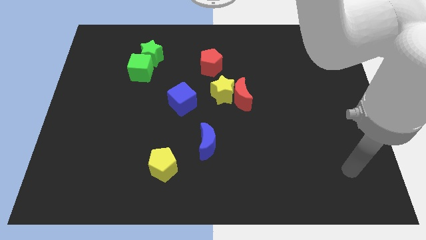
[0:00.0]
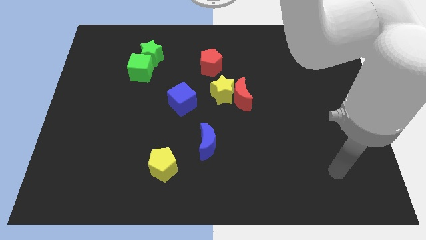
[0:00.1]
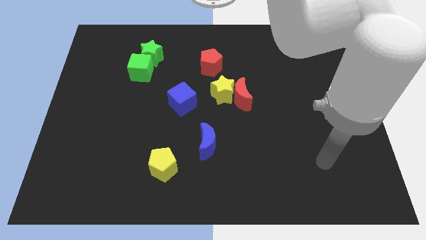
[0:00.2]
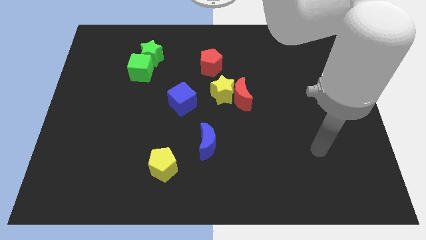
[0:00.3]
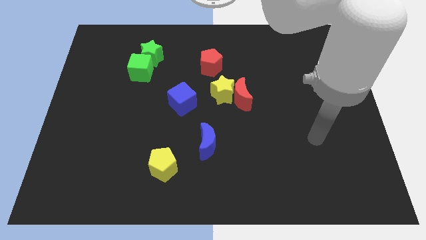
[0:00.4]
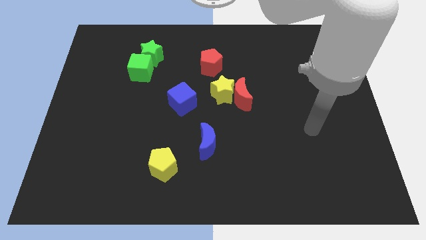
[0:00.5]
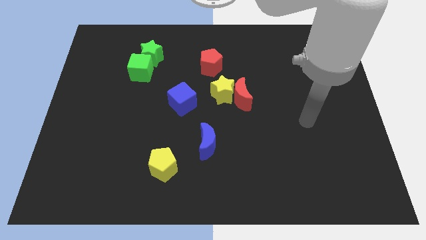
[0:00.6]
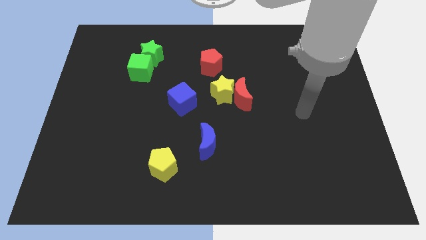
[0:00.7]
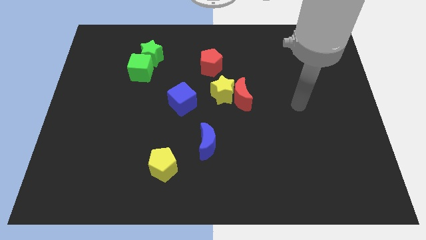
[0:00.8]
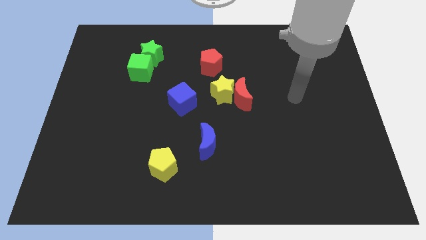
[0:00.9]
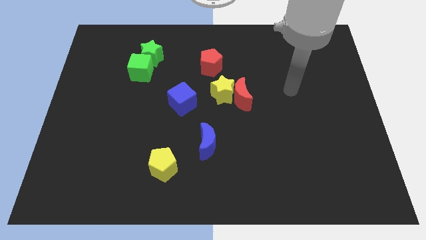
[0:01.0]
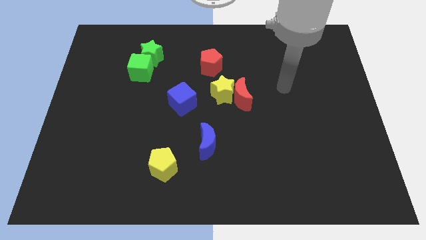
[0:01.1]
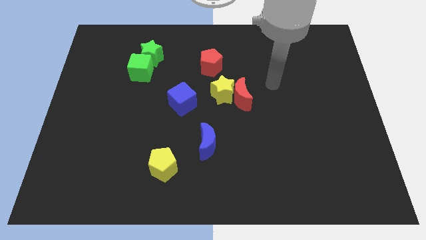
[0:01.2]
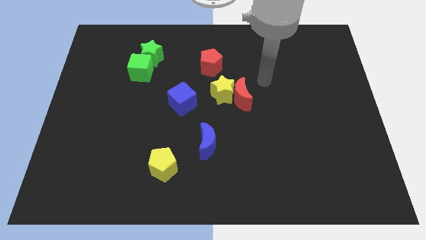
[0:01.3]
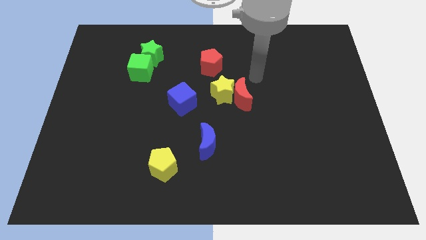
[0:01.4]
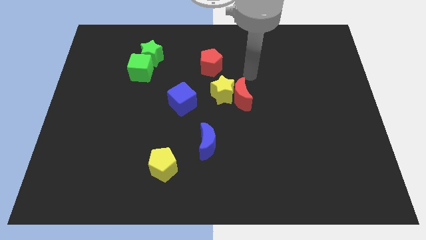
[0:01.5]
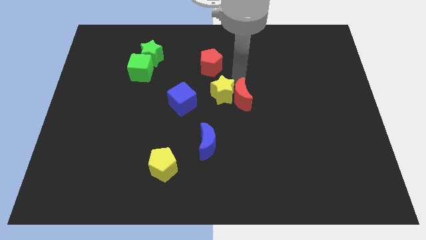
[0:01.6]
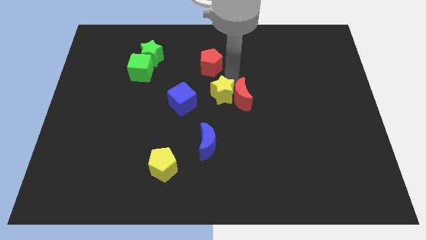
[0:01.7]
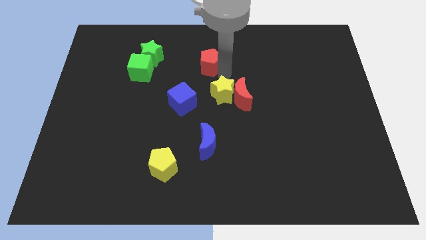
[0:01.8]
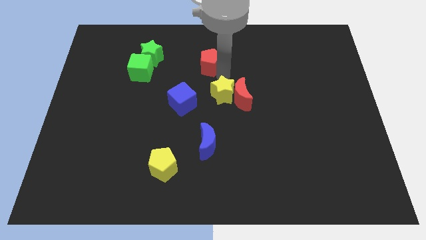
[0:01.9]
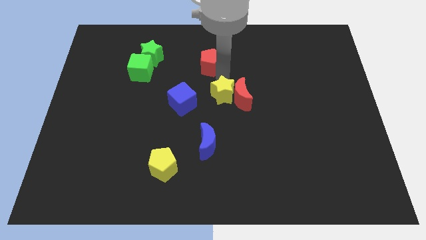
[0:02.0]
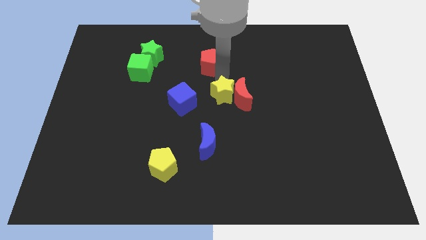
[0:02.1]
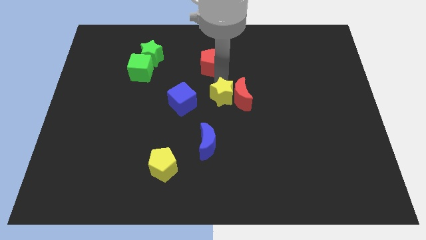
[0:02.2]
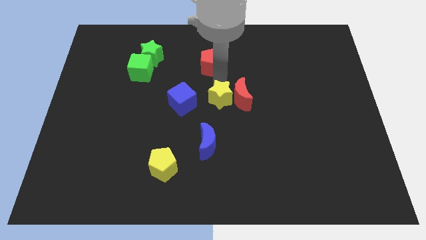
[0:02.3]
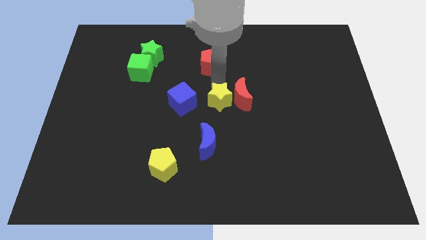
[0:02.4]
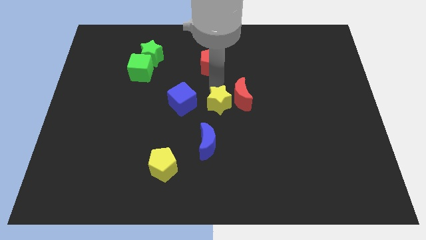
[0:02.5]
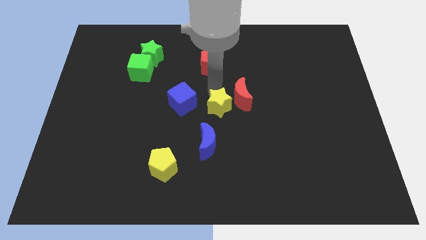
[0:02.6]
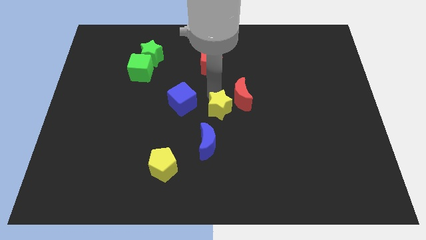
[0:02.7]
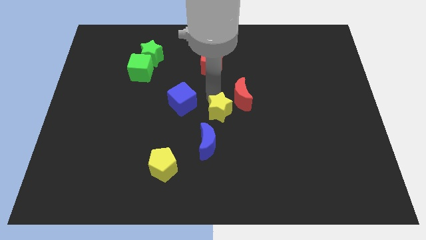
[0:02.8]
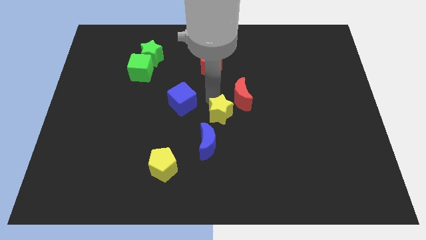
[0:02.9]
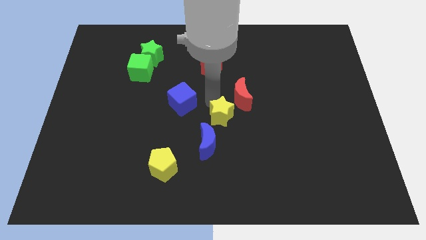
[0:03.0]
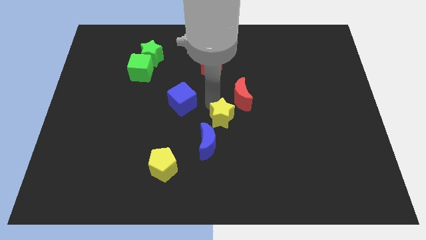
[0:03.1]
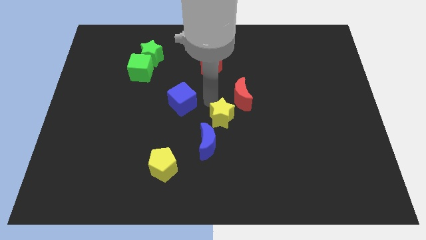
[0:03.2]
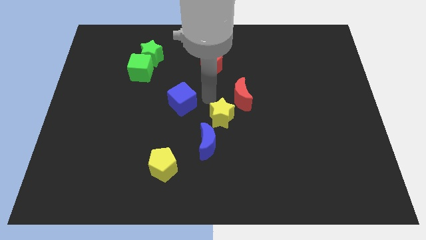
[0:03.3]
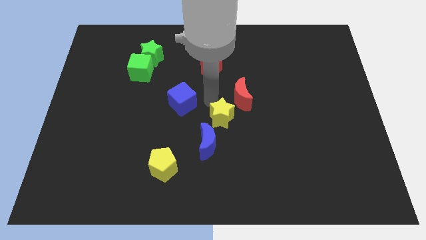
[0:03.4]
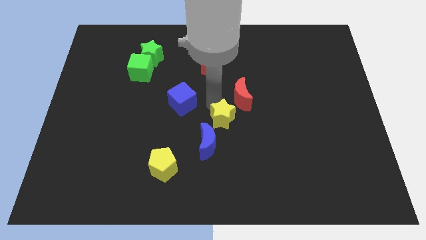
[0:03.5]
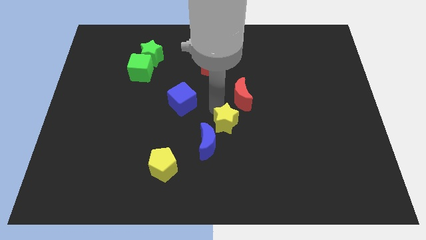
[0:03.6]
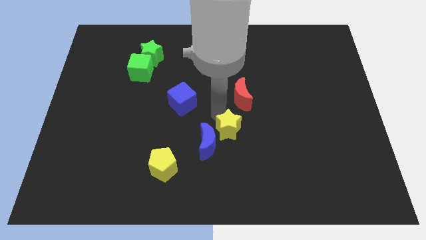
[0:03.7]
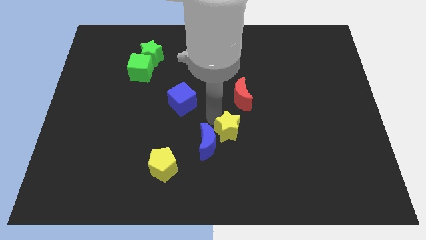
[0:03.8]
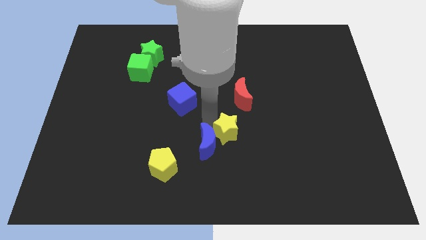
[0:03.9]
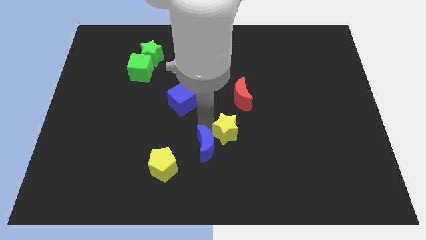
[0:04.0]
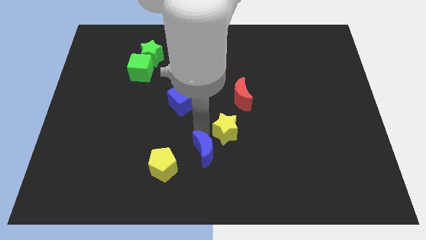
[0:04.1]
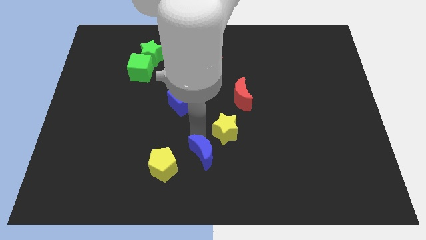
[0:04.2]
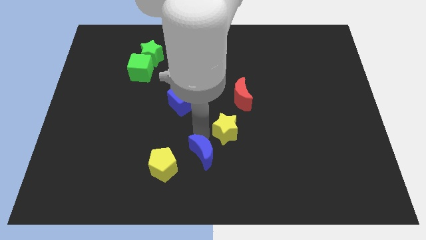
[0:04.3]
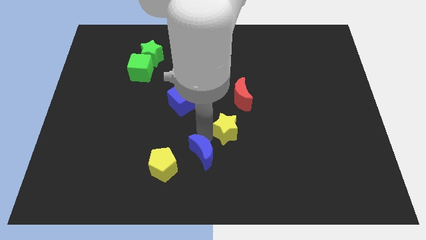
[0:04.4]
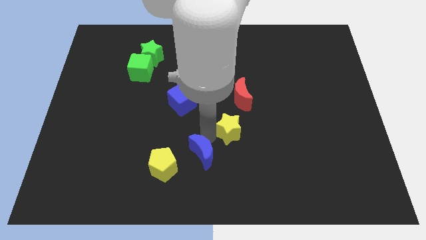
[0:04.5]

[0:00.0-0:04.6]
move the yellow star somewhat diagonally down and right

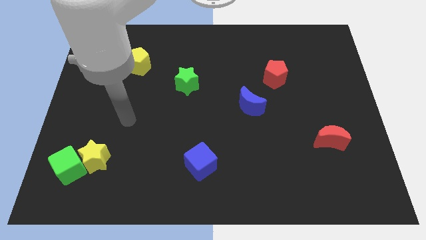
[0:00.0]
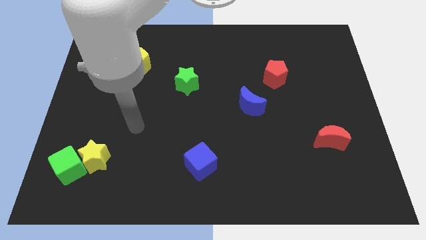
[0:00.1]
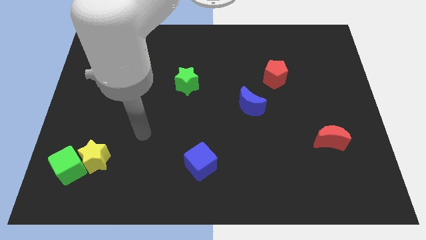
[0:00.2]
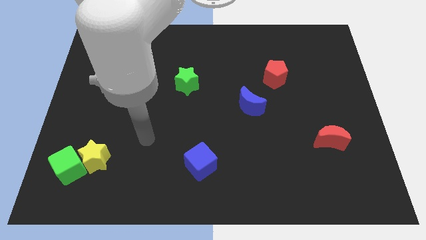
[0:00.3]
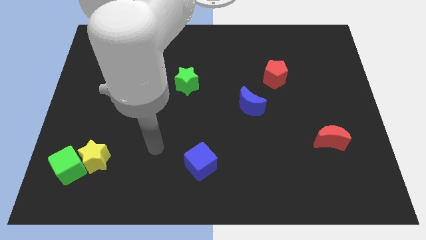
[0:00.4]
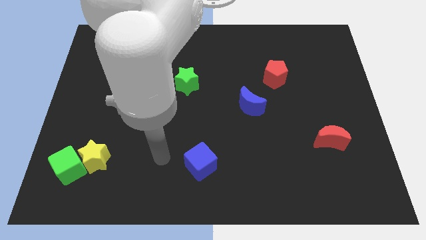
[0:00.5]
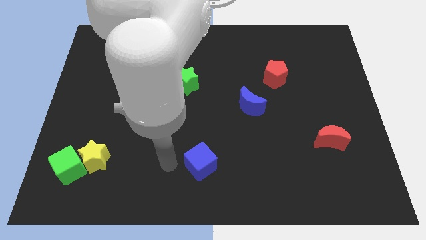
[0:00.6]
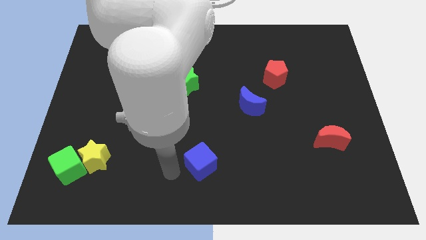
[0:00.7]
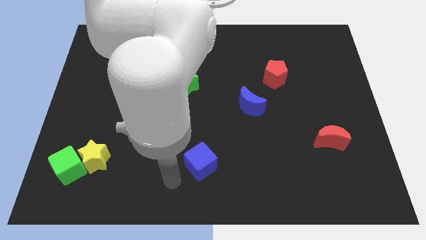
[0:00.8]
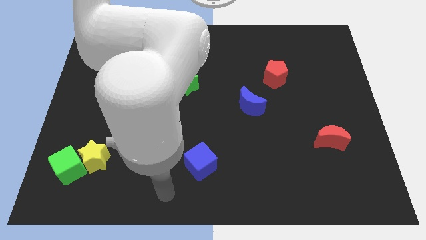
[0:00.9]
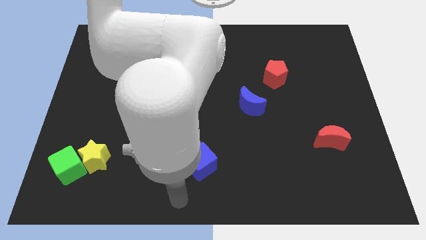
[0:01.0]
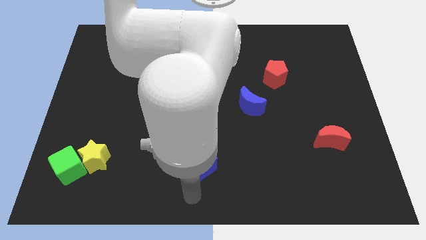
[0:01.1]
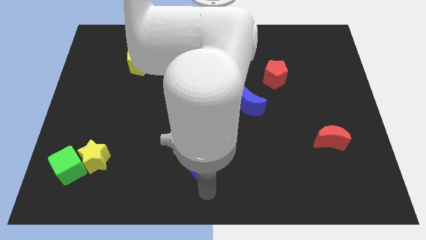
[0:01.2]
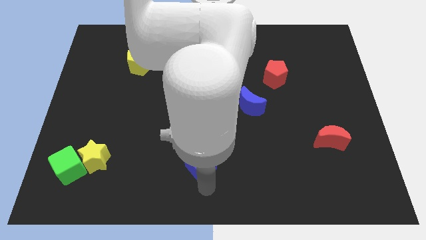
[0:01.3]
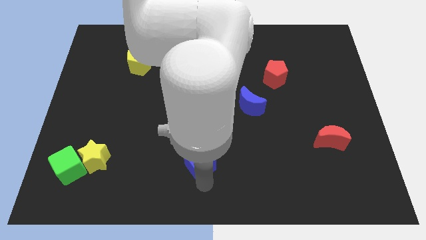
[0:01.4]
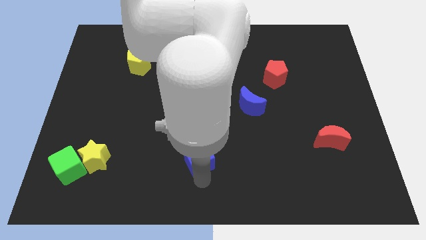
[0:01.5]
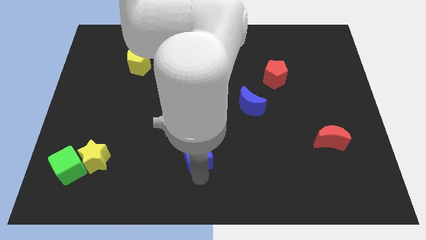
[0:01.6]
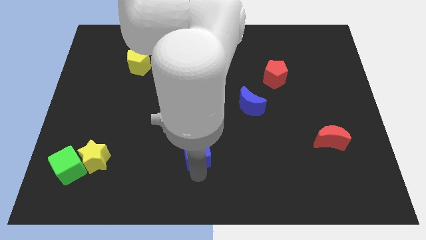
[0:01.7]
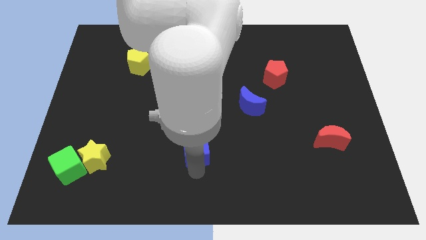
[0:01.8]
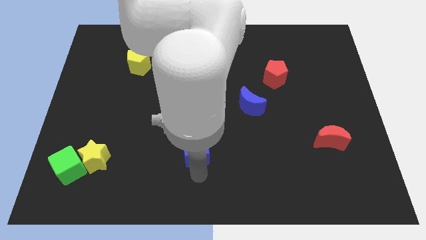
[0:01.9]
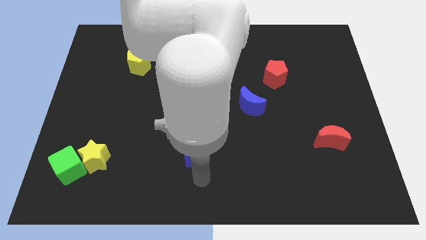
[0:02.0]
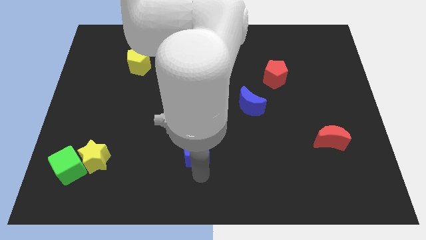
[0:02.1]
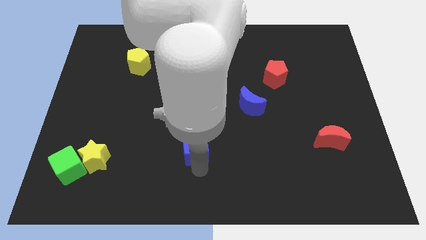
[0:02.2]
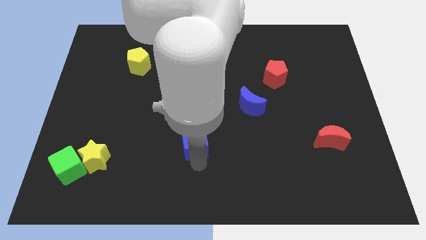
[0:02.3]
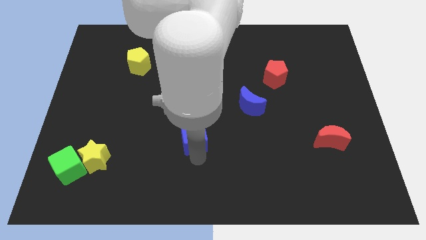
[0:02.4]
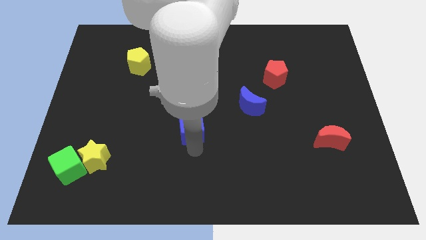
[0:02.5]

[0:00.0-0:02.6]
slide the blue cube upwards slightly

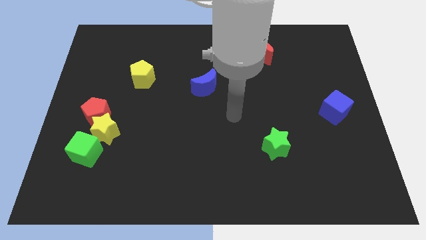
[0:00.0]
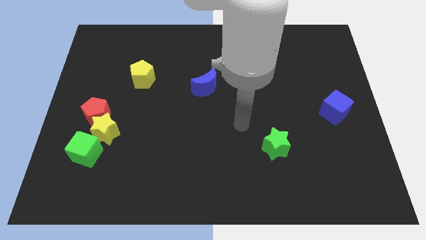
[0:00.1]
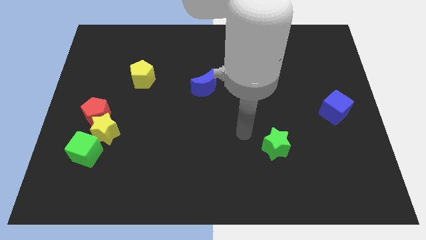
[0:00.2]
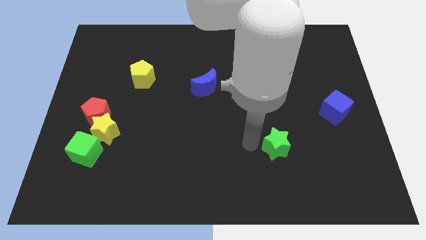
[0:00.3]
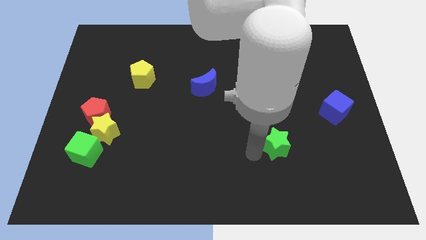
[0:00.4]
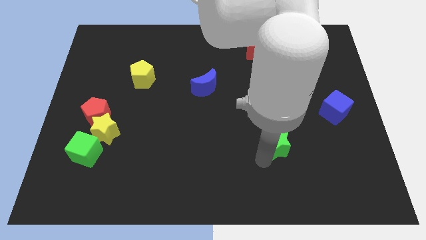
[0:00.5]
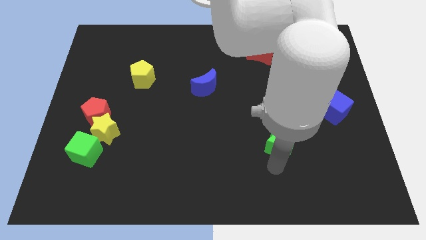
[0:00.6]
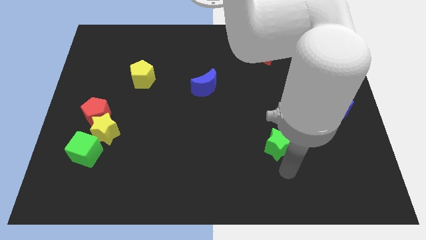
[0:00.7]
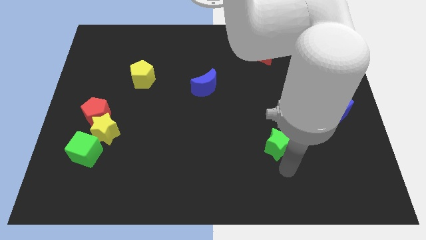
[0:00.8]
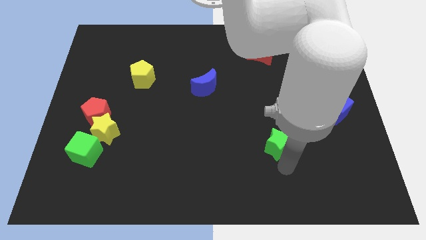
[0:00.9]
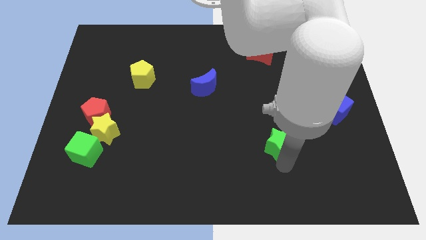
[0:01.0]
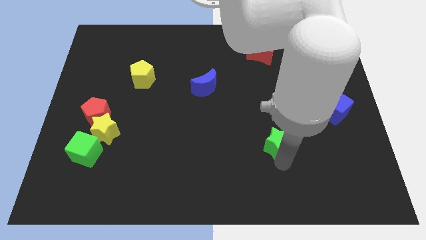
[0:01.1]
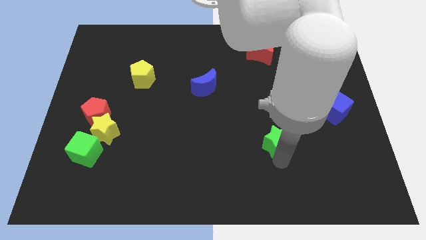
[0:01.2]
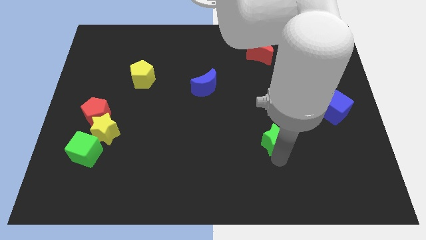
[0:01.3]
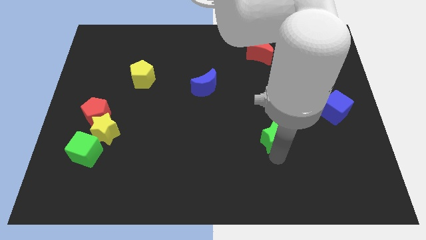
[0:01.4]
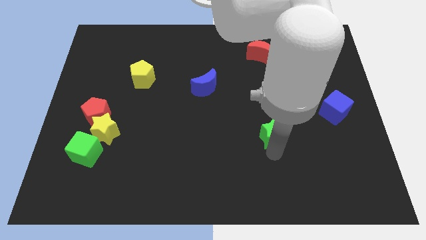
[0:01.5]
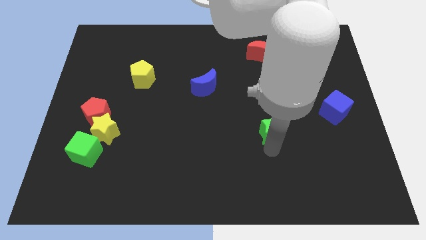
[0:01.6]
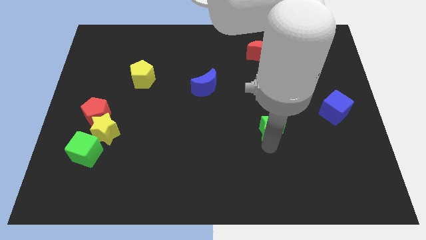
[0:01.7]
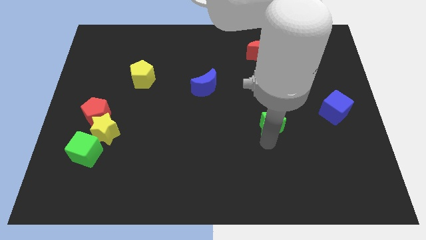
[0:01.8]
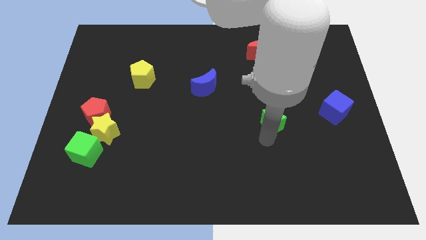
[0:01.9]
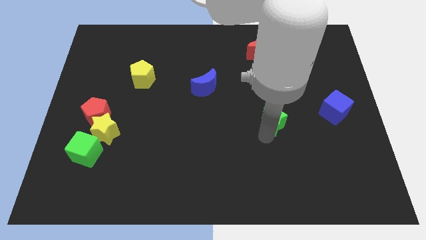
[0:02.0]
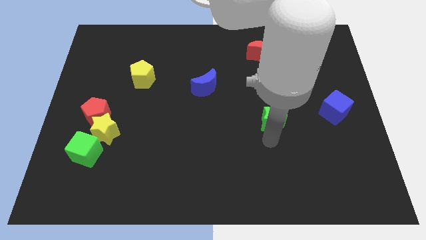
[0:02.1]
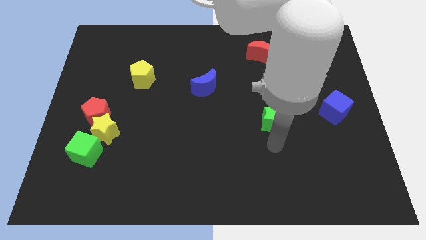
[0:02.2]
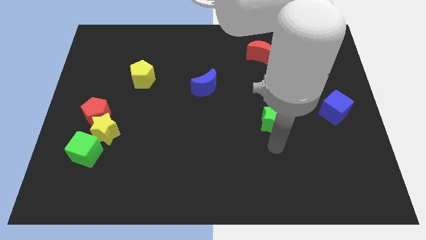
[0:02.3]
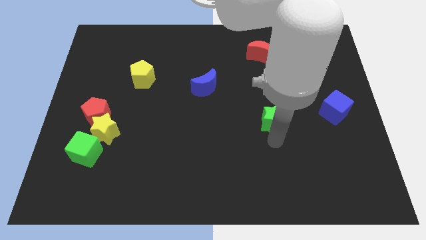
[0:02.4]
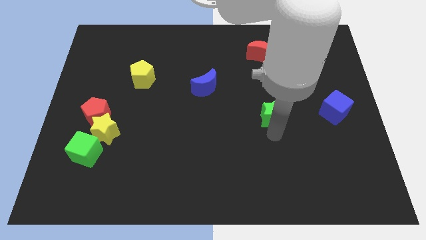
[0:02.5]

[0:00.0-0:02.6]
slide the green star up somewhat
